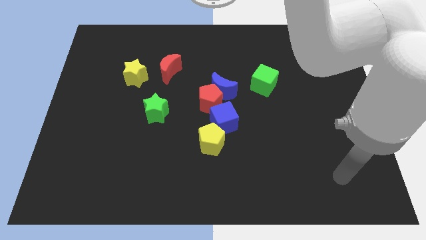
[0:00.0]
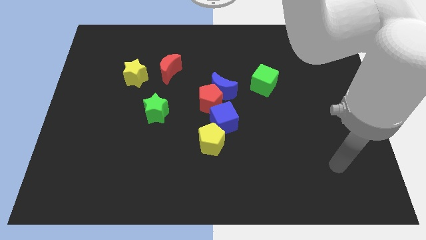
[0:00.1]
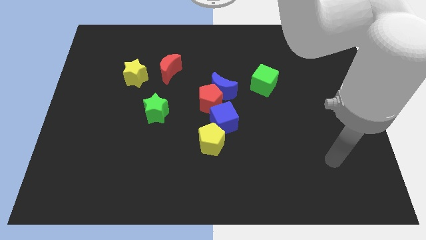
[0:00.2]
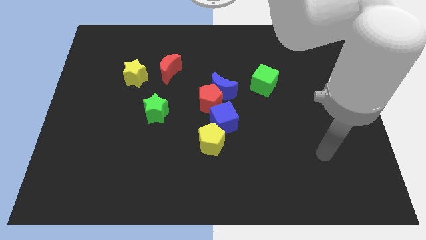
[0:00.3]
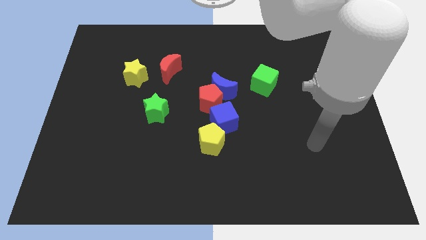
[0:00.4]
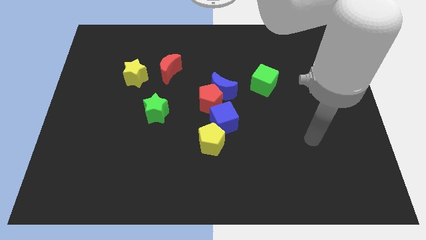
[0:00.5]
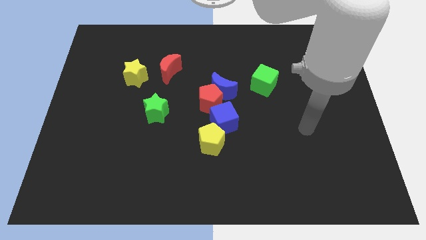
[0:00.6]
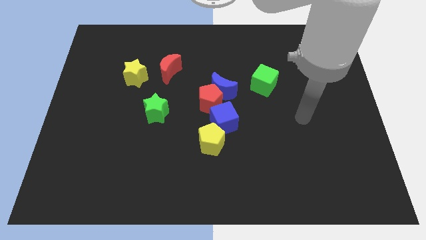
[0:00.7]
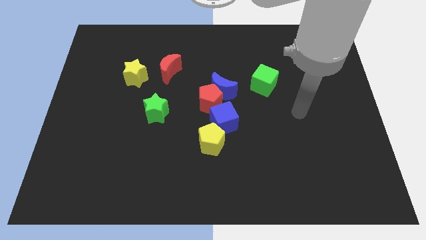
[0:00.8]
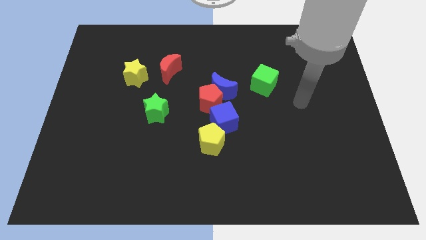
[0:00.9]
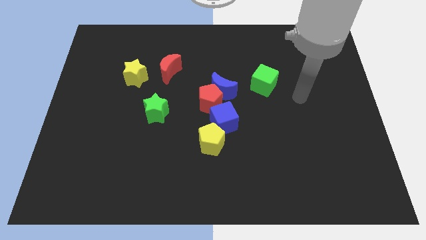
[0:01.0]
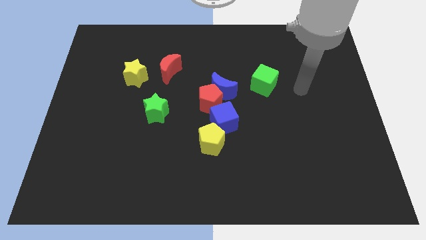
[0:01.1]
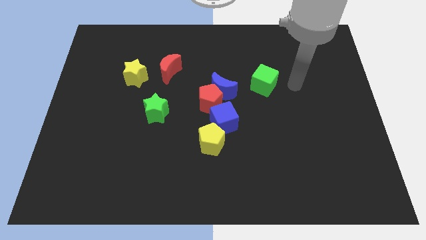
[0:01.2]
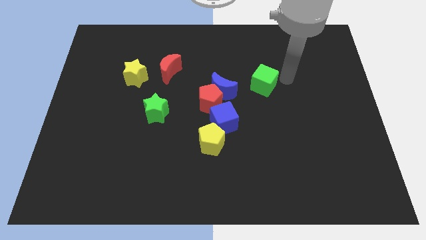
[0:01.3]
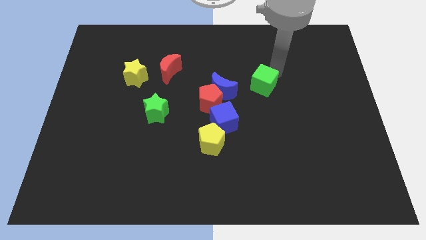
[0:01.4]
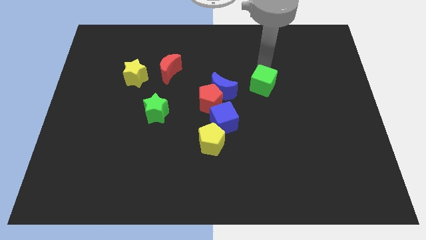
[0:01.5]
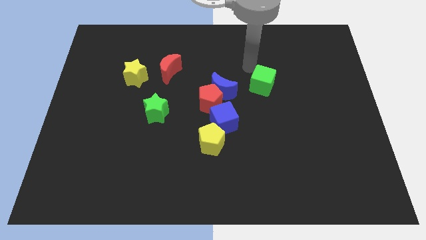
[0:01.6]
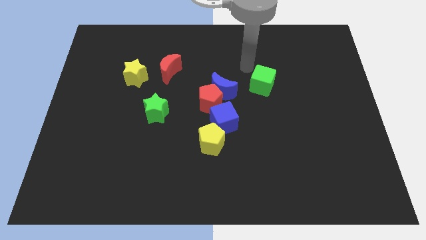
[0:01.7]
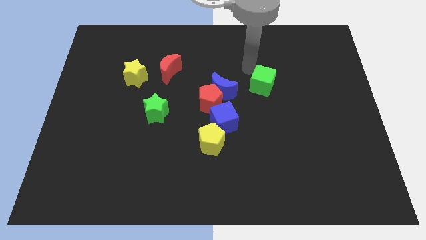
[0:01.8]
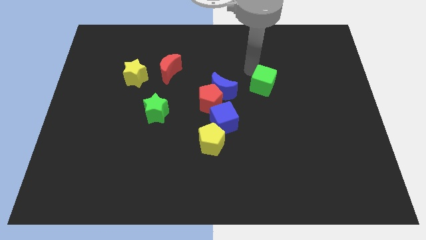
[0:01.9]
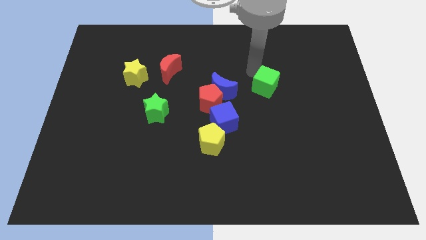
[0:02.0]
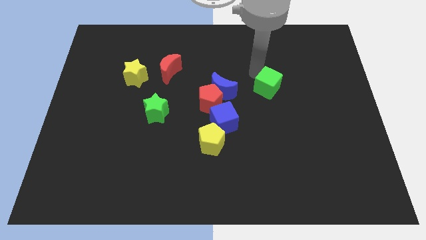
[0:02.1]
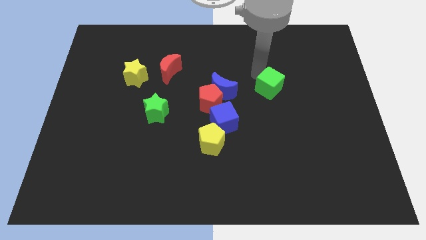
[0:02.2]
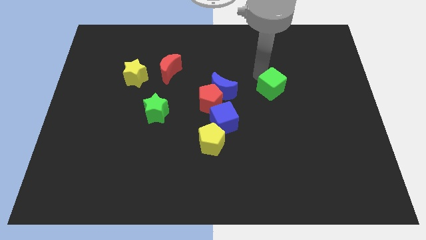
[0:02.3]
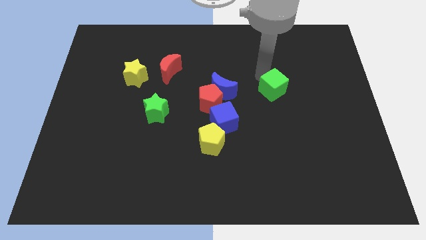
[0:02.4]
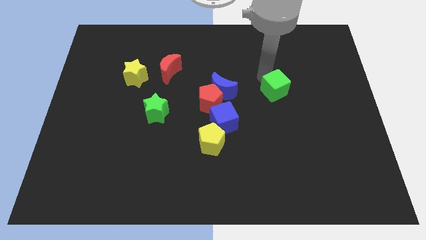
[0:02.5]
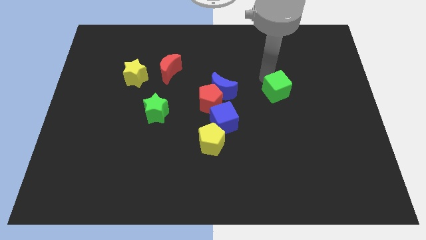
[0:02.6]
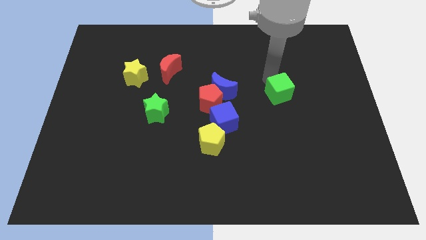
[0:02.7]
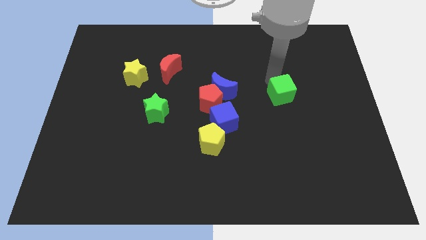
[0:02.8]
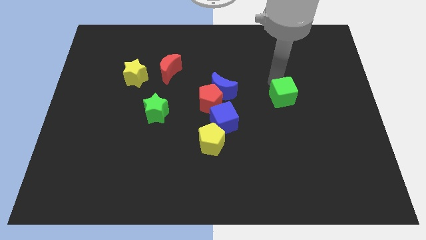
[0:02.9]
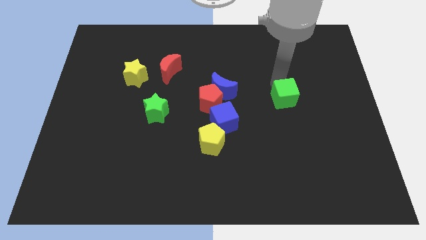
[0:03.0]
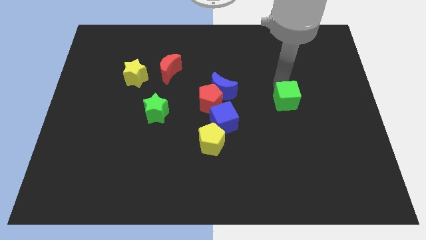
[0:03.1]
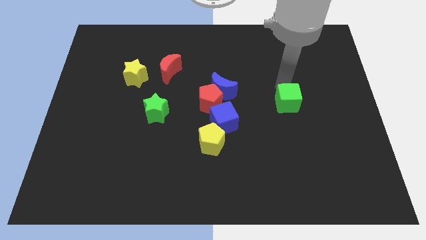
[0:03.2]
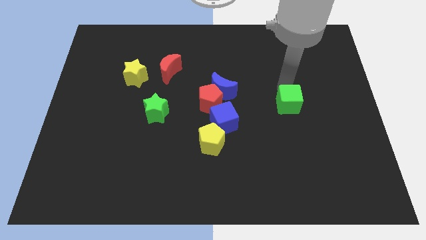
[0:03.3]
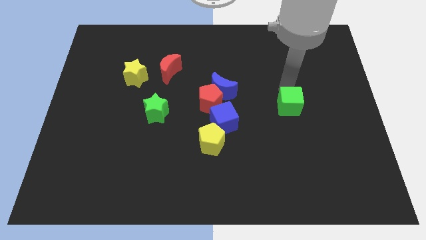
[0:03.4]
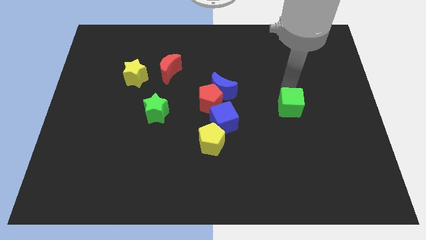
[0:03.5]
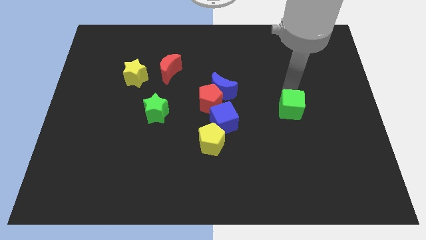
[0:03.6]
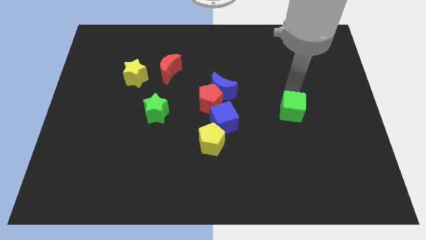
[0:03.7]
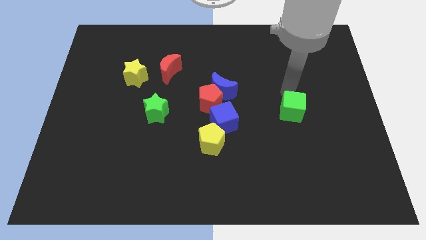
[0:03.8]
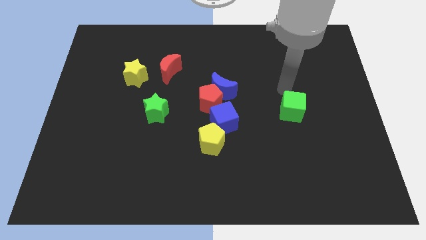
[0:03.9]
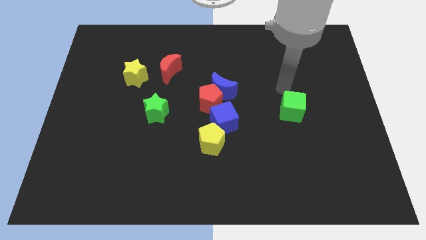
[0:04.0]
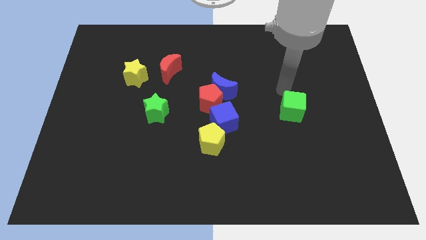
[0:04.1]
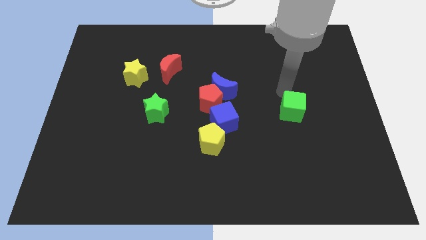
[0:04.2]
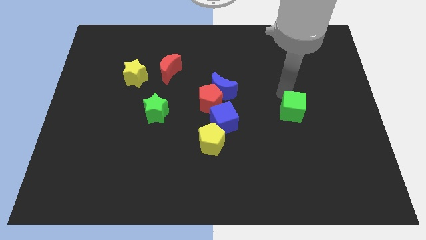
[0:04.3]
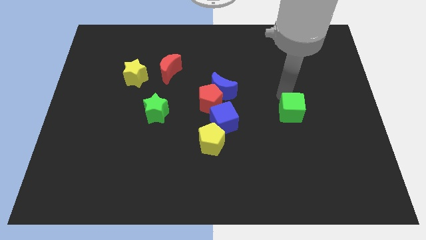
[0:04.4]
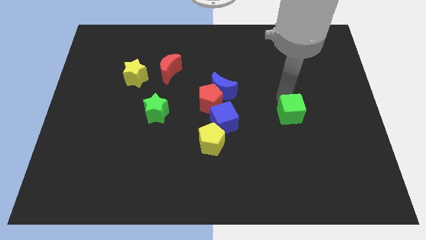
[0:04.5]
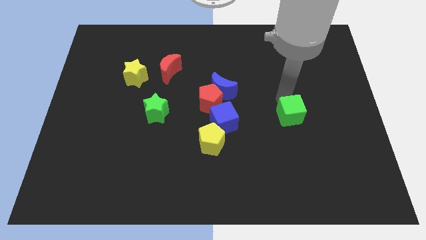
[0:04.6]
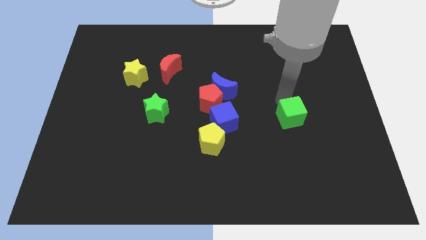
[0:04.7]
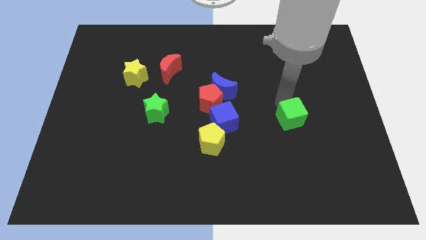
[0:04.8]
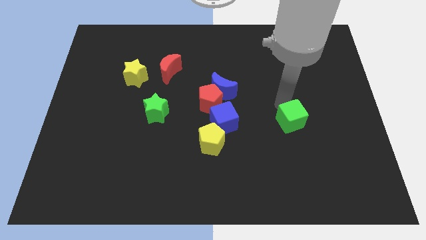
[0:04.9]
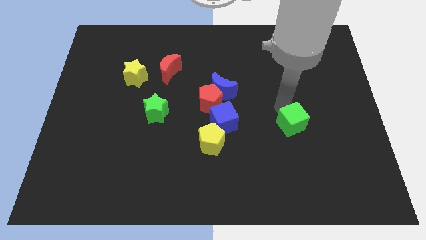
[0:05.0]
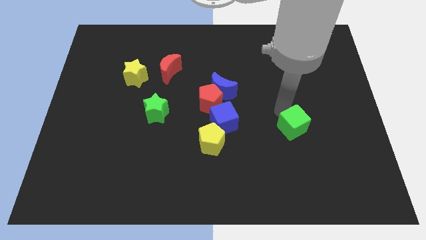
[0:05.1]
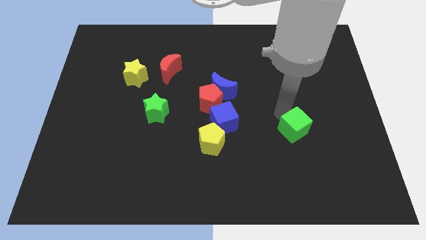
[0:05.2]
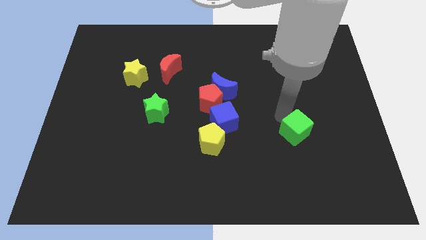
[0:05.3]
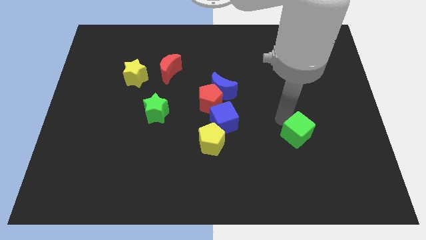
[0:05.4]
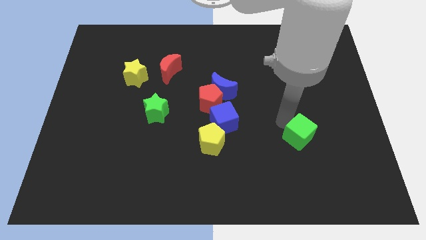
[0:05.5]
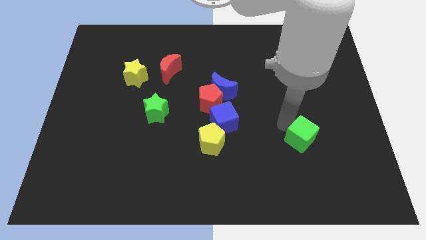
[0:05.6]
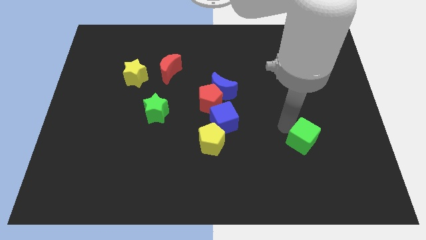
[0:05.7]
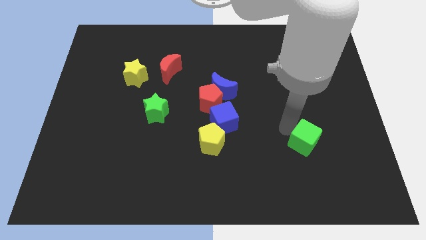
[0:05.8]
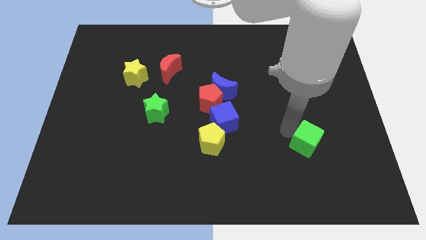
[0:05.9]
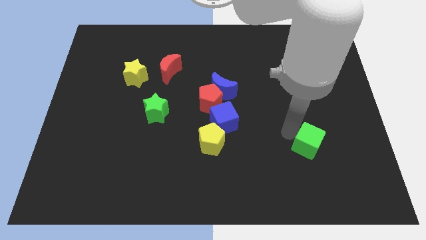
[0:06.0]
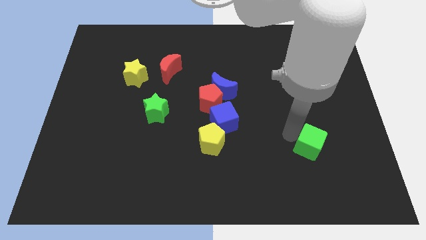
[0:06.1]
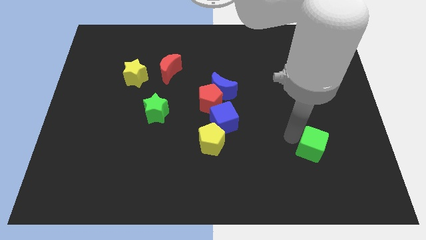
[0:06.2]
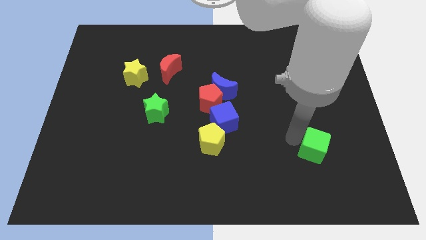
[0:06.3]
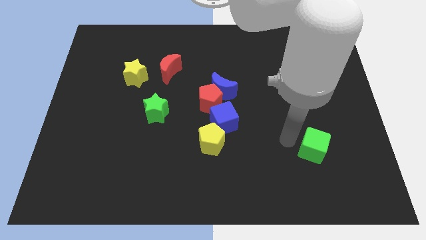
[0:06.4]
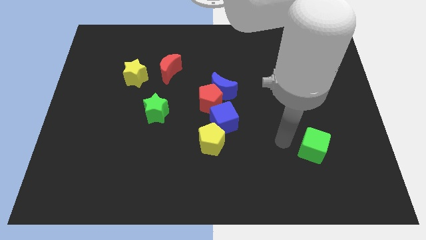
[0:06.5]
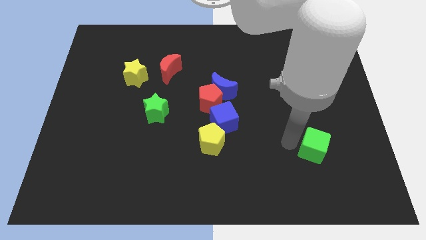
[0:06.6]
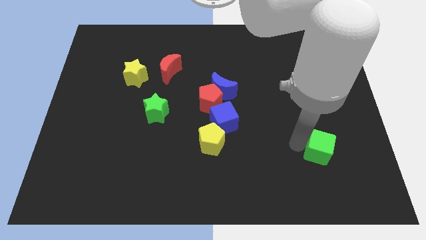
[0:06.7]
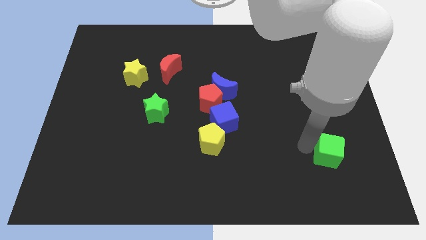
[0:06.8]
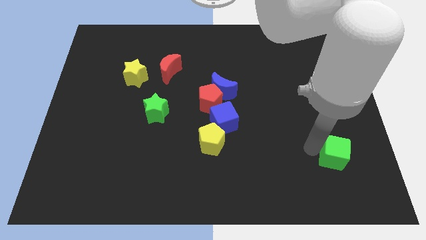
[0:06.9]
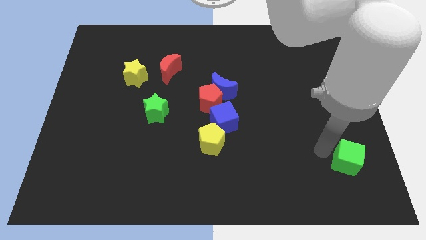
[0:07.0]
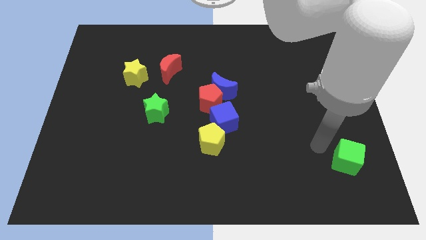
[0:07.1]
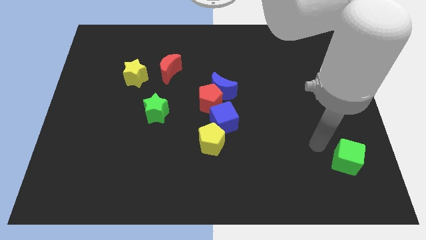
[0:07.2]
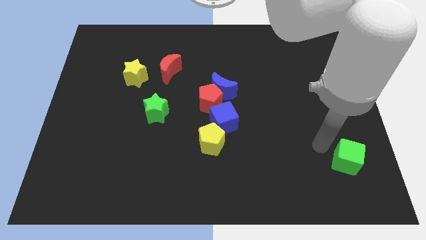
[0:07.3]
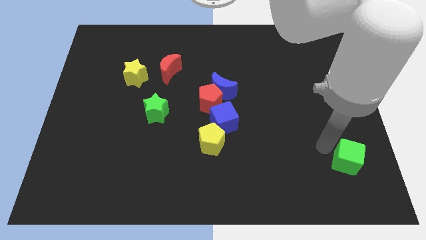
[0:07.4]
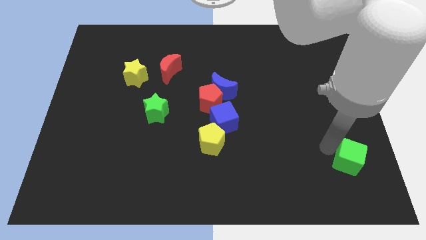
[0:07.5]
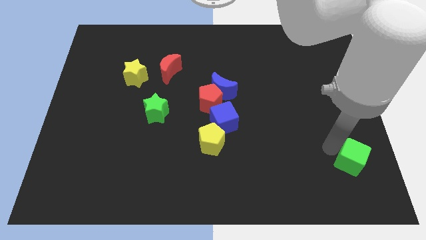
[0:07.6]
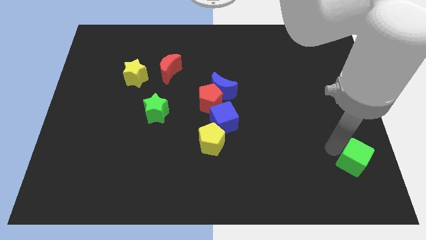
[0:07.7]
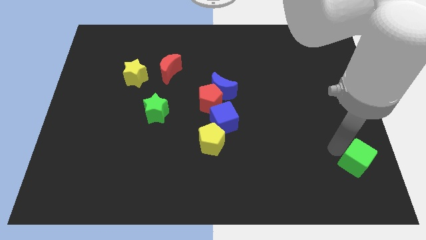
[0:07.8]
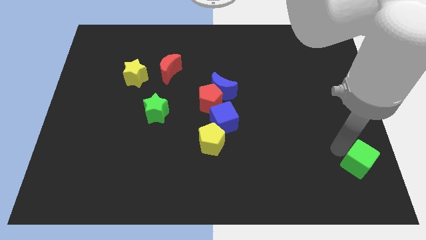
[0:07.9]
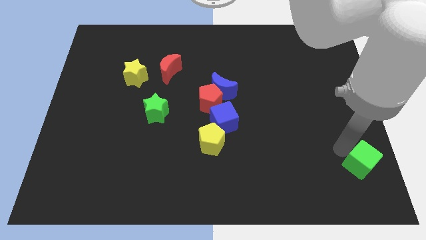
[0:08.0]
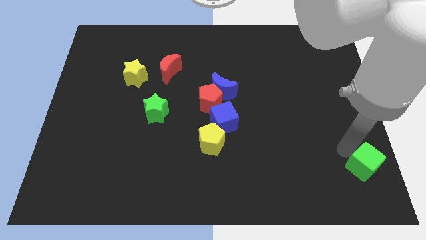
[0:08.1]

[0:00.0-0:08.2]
put the green cube to the bottom right of the board

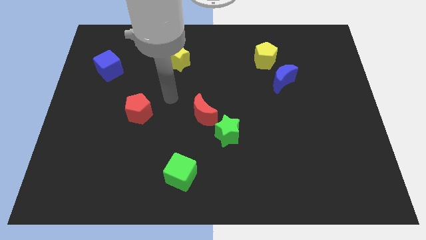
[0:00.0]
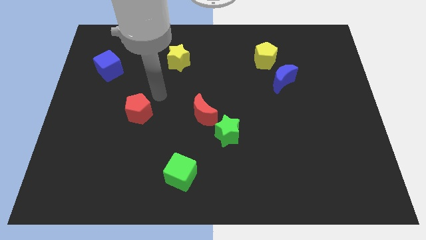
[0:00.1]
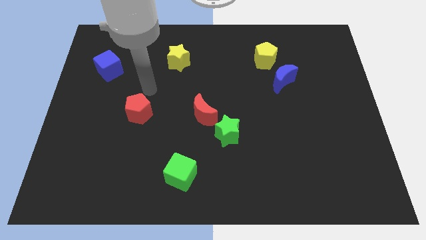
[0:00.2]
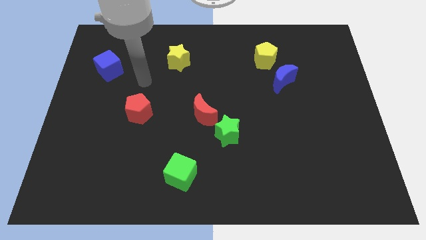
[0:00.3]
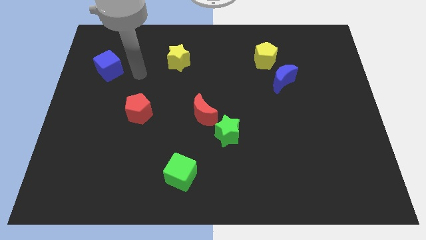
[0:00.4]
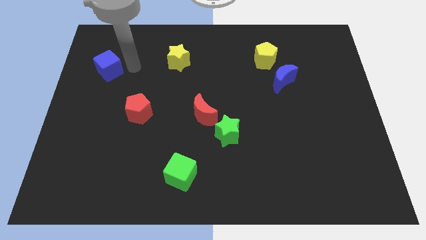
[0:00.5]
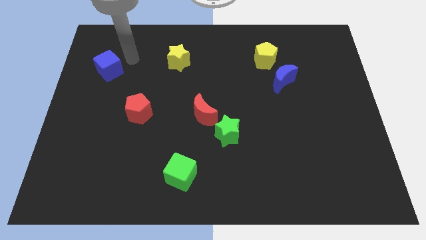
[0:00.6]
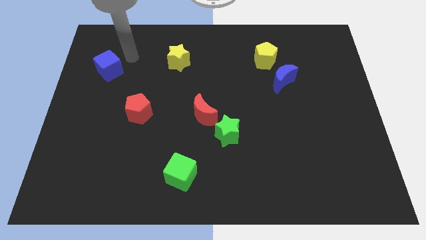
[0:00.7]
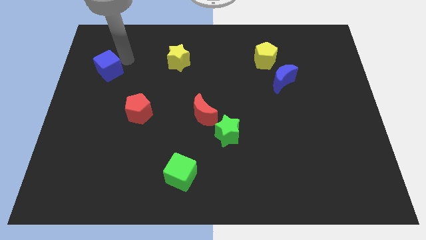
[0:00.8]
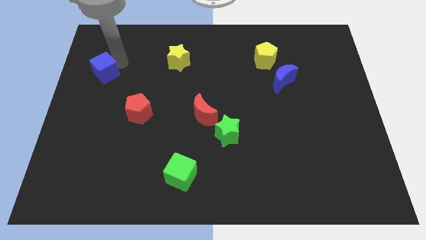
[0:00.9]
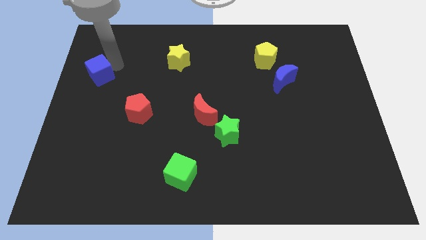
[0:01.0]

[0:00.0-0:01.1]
slide the blue cube to the left side of the board
